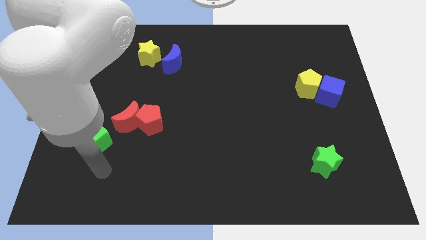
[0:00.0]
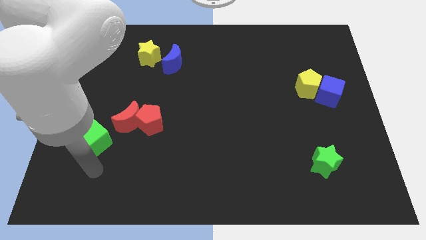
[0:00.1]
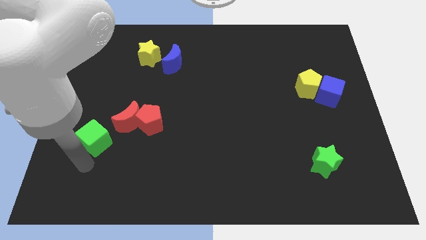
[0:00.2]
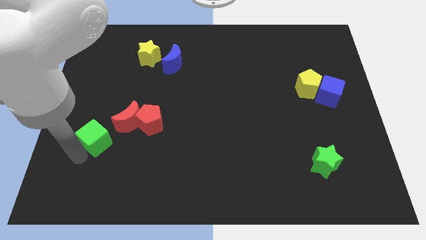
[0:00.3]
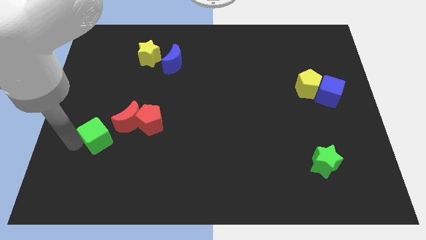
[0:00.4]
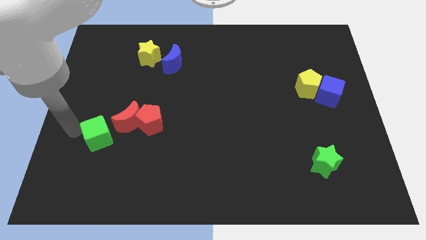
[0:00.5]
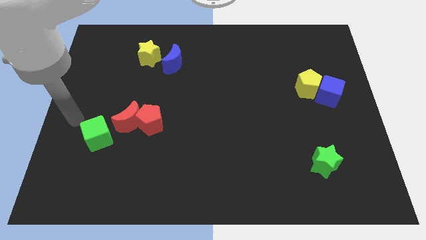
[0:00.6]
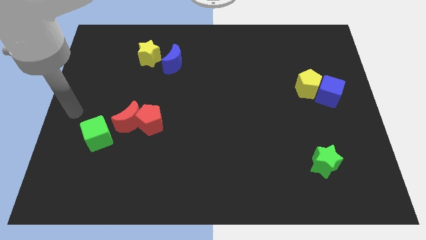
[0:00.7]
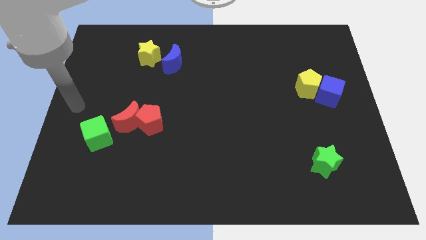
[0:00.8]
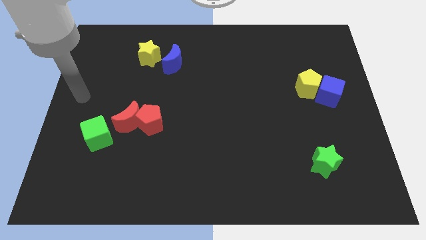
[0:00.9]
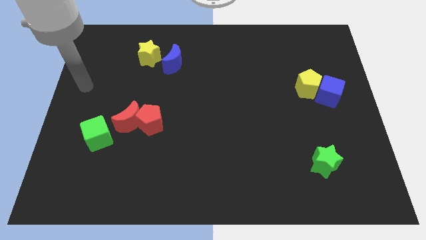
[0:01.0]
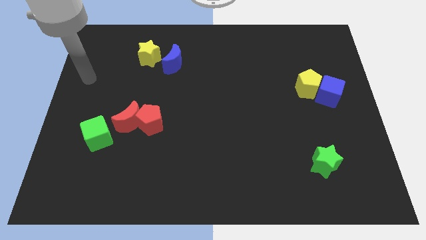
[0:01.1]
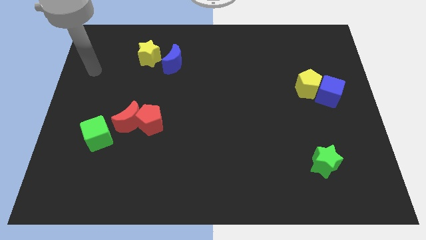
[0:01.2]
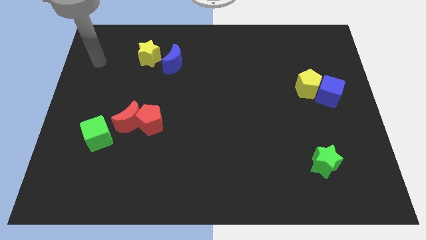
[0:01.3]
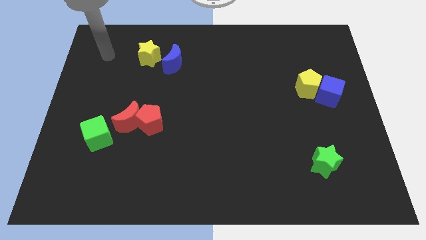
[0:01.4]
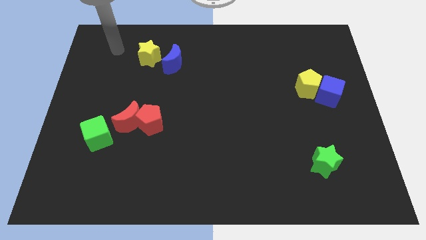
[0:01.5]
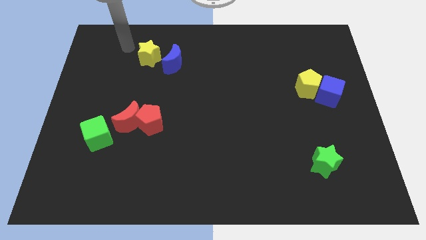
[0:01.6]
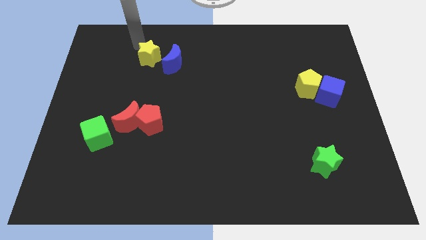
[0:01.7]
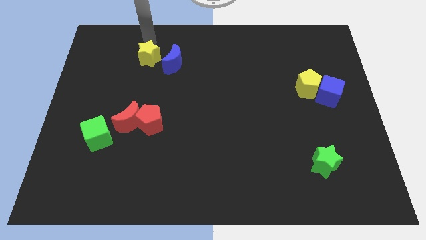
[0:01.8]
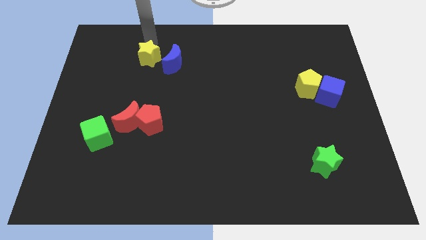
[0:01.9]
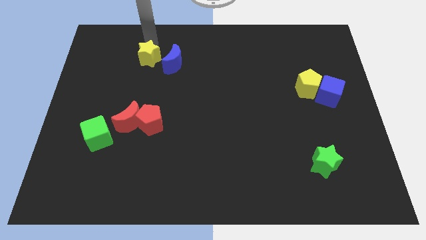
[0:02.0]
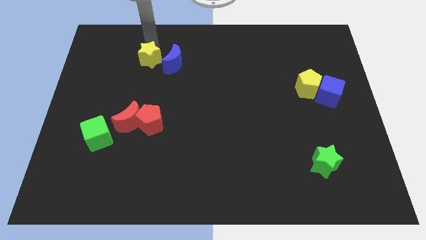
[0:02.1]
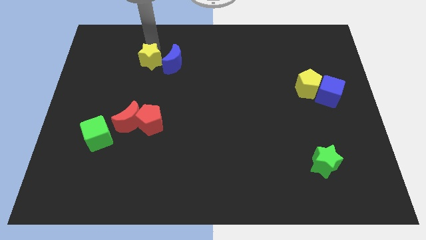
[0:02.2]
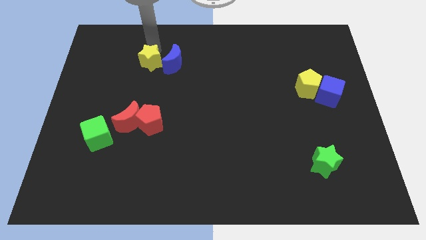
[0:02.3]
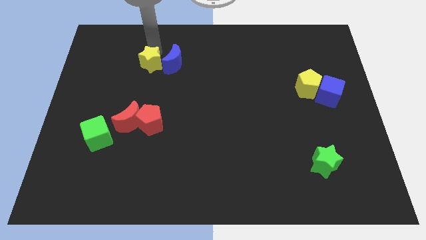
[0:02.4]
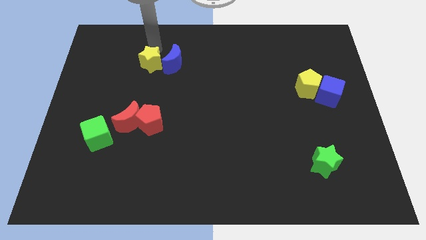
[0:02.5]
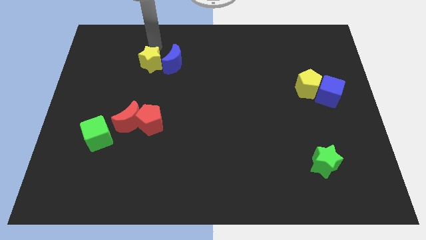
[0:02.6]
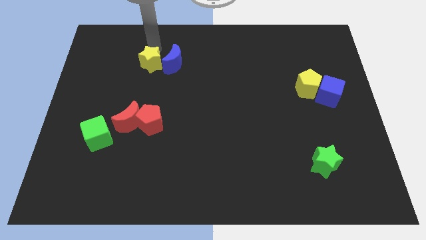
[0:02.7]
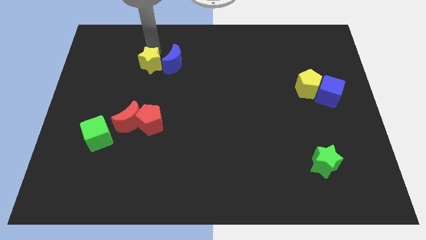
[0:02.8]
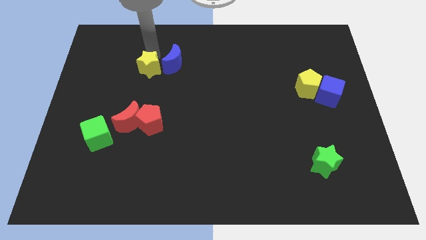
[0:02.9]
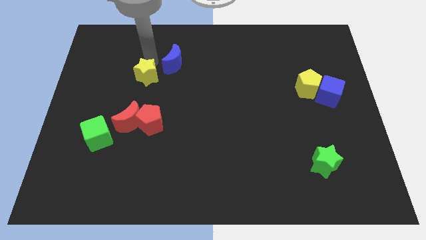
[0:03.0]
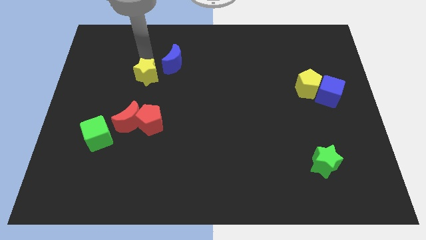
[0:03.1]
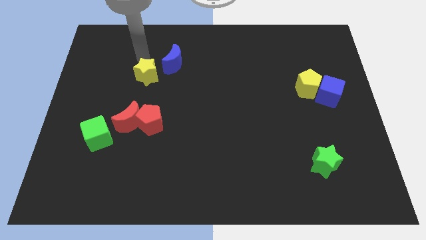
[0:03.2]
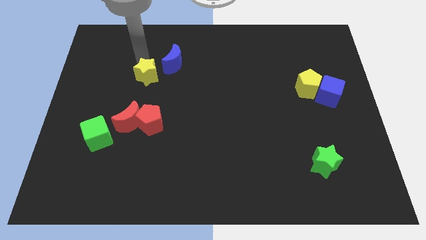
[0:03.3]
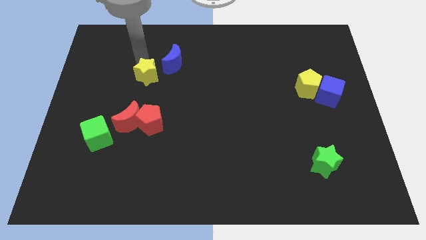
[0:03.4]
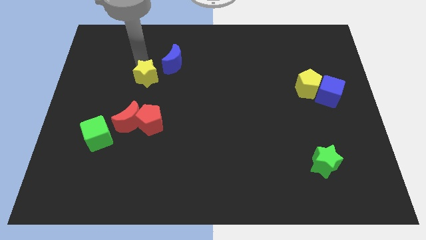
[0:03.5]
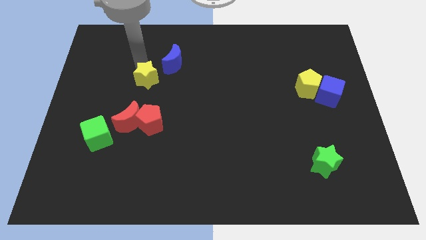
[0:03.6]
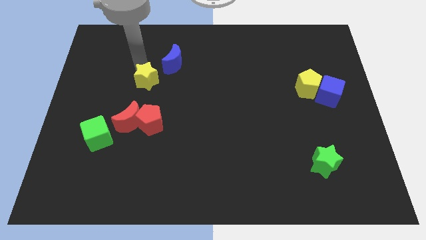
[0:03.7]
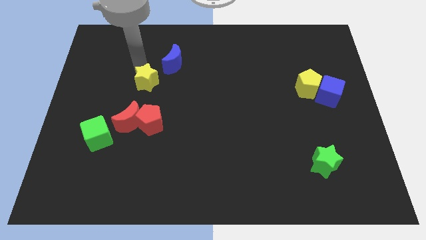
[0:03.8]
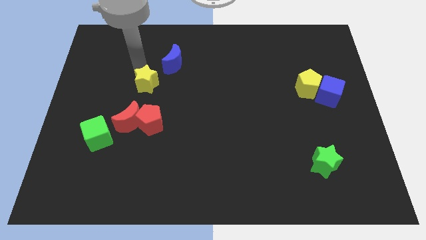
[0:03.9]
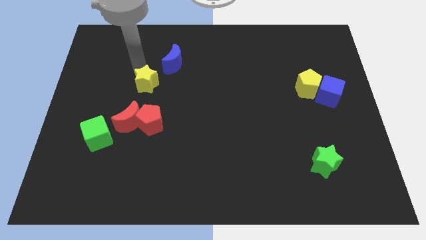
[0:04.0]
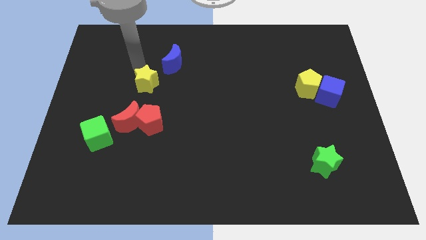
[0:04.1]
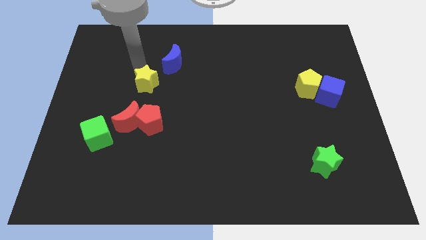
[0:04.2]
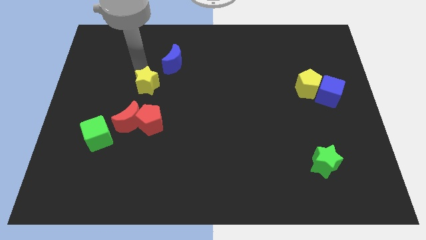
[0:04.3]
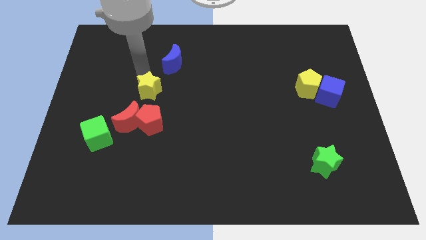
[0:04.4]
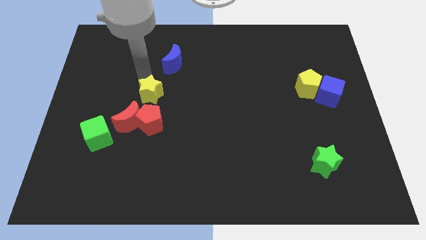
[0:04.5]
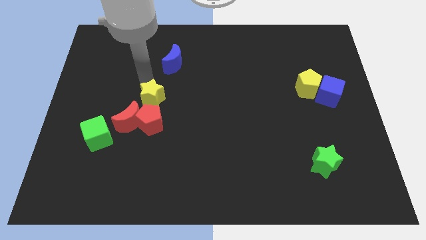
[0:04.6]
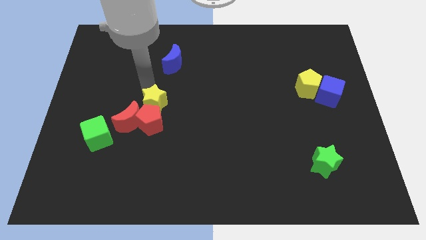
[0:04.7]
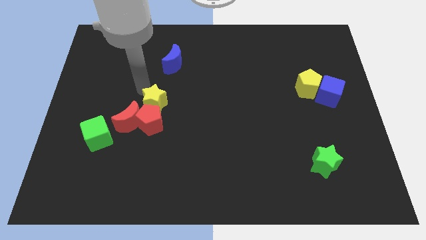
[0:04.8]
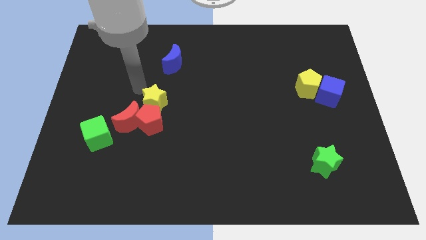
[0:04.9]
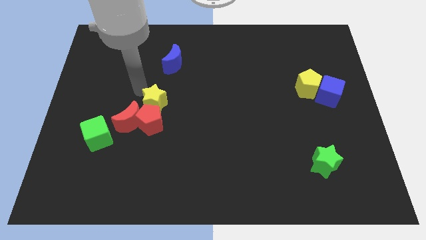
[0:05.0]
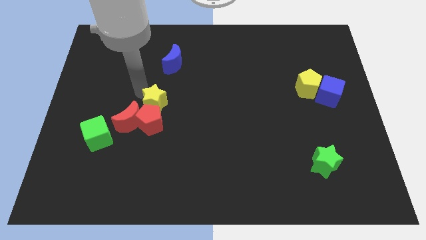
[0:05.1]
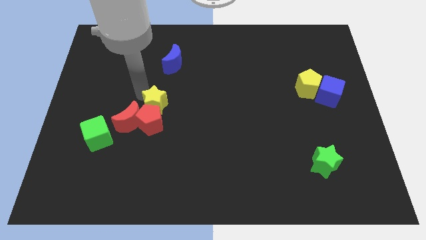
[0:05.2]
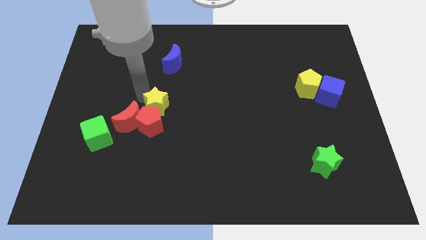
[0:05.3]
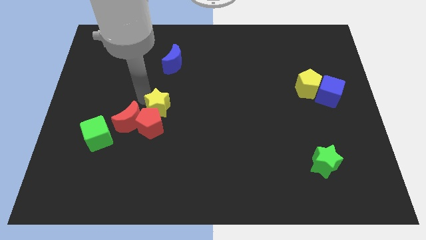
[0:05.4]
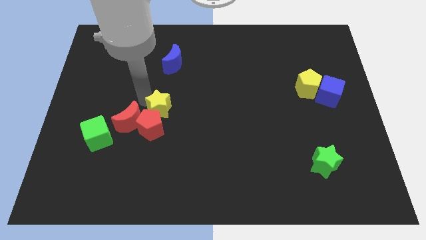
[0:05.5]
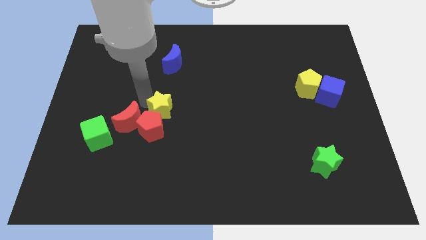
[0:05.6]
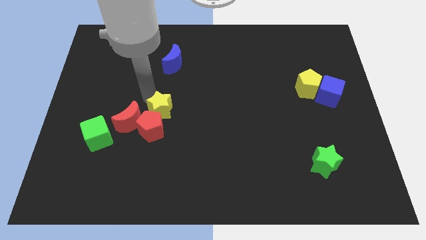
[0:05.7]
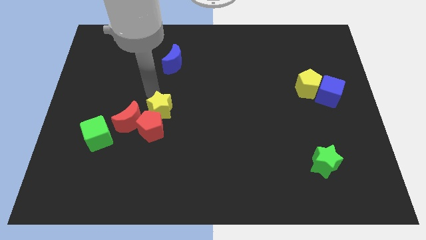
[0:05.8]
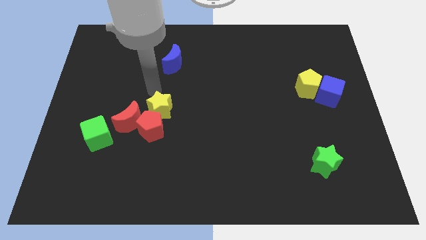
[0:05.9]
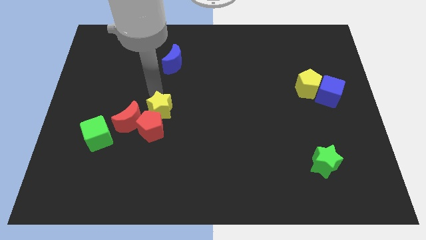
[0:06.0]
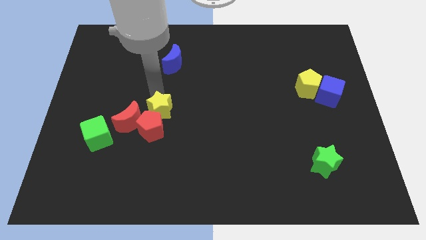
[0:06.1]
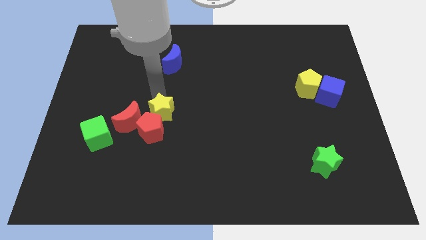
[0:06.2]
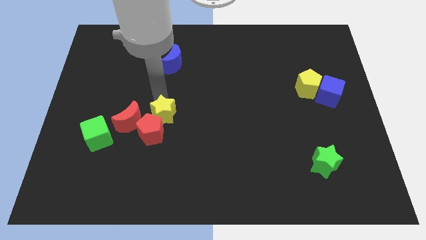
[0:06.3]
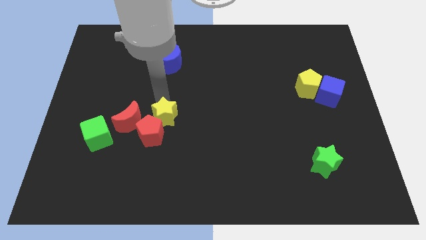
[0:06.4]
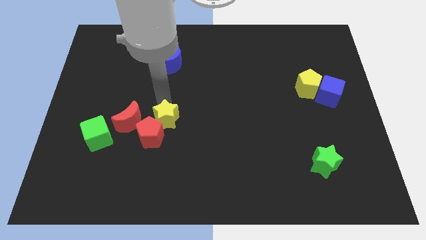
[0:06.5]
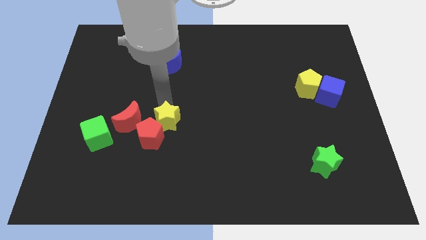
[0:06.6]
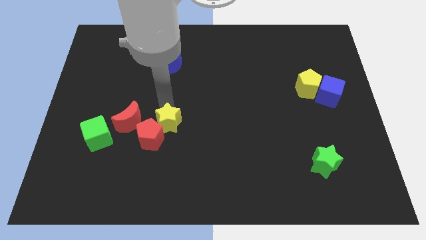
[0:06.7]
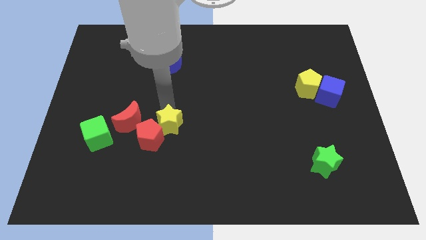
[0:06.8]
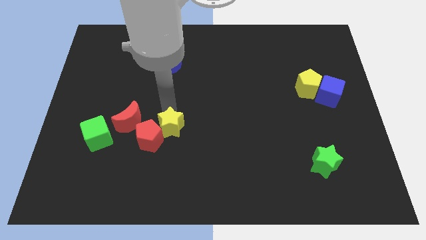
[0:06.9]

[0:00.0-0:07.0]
move the yellow star down

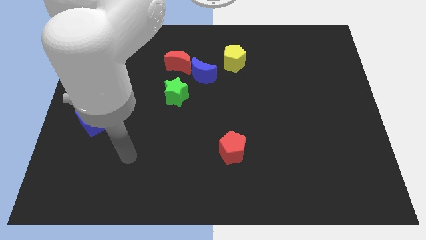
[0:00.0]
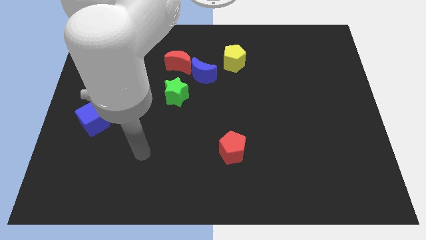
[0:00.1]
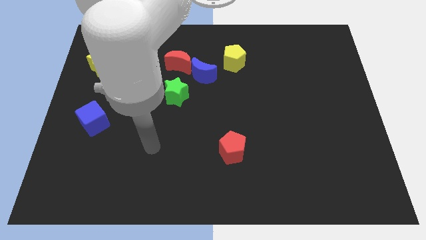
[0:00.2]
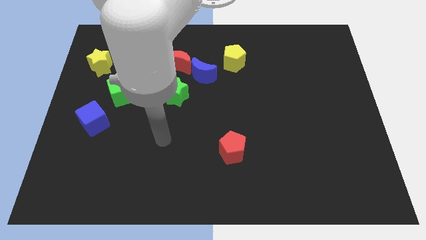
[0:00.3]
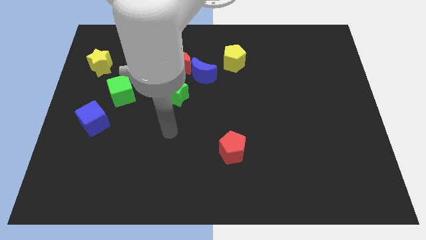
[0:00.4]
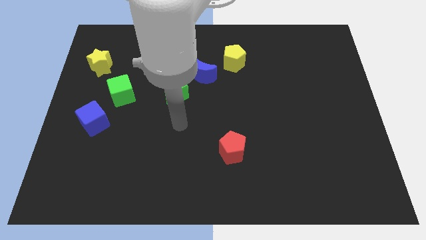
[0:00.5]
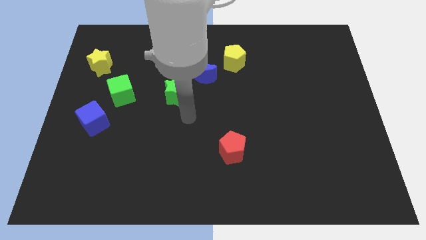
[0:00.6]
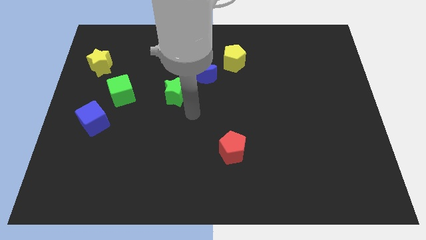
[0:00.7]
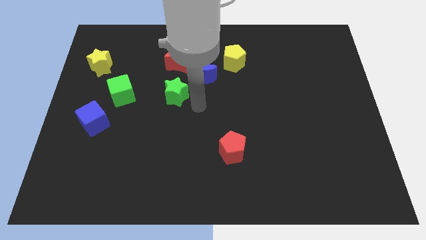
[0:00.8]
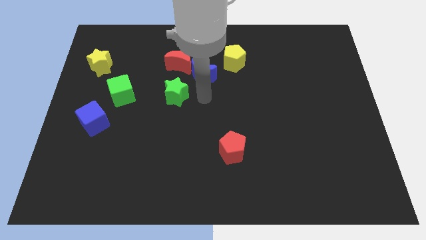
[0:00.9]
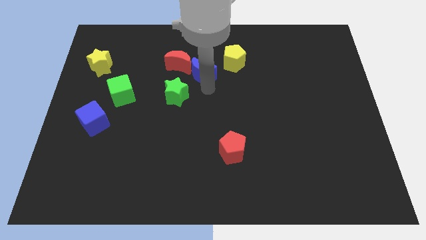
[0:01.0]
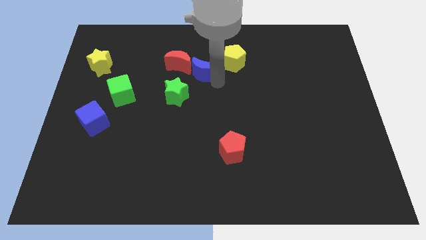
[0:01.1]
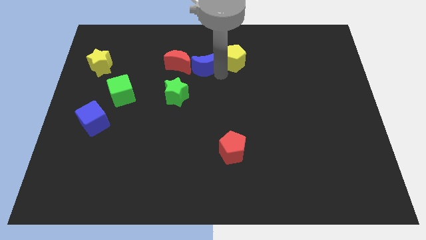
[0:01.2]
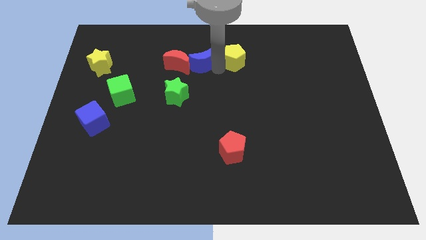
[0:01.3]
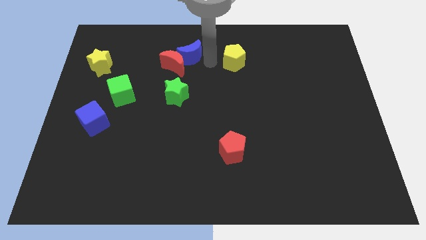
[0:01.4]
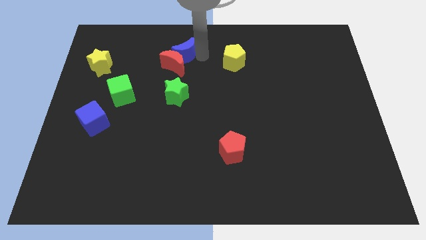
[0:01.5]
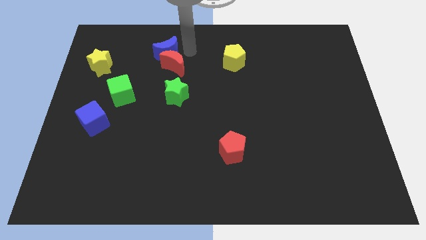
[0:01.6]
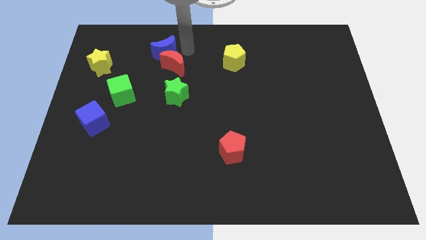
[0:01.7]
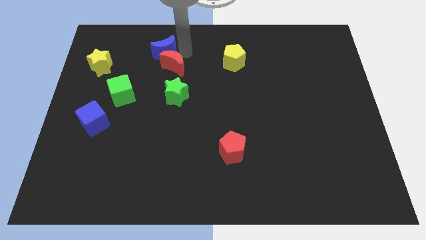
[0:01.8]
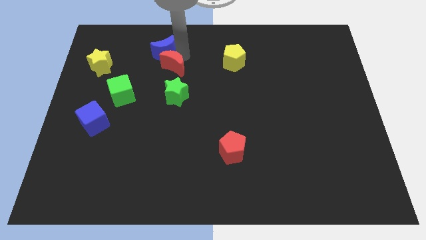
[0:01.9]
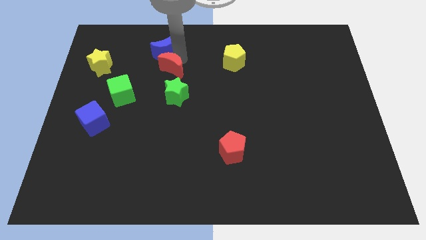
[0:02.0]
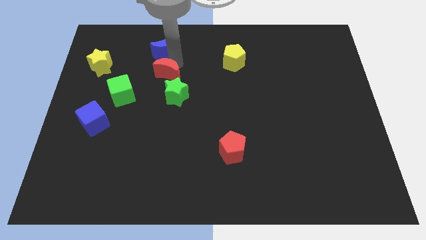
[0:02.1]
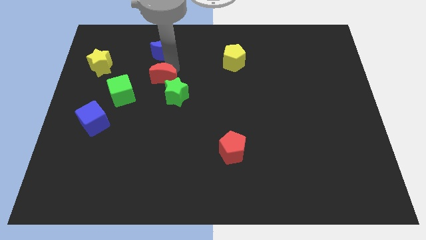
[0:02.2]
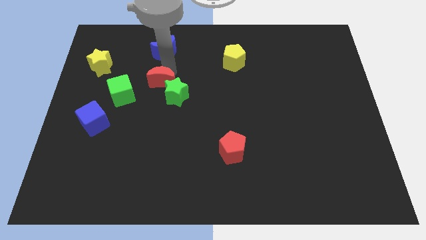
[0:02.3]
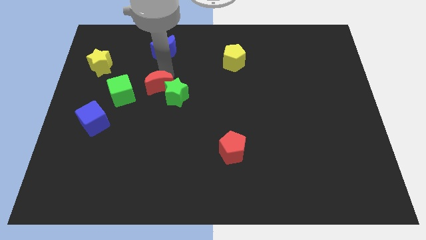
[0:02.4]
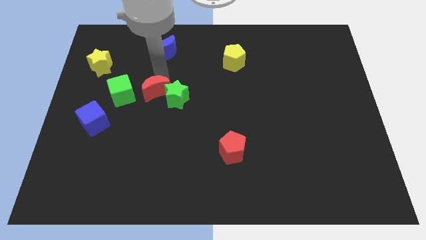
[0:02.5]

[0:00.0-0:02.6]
slide the red moon somewhat downwards
